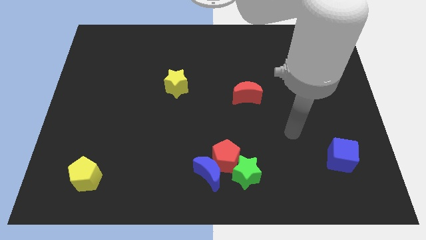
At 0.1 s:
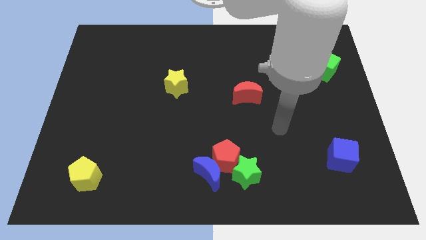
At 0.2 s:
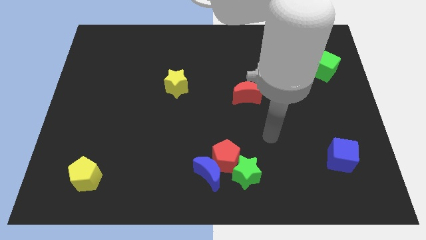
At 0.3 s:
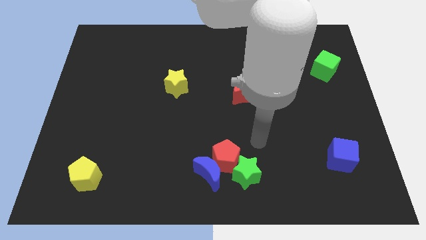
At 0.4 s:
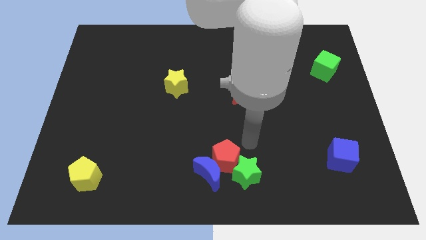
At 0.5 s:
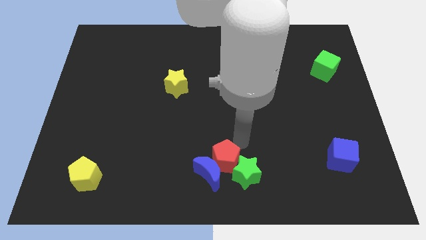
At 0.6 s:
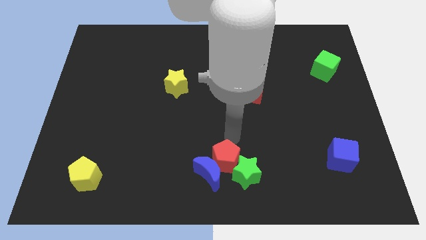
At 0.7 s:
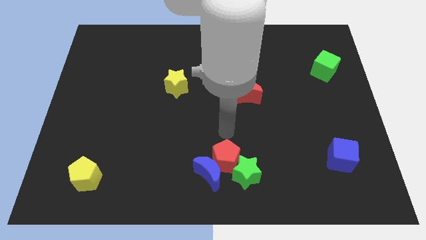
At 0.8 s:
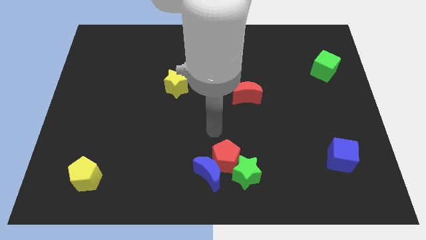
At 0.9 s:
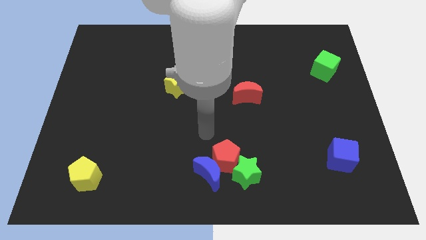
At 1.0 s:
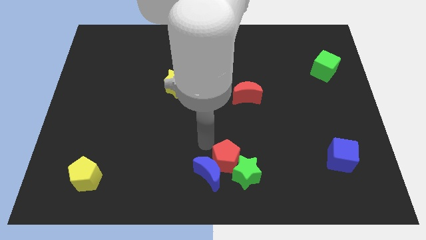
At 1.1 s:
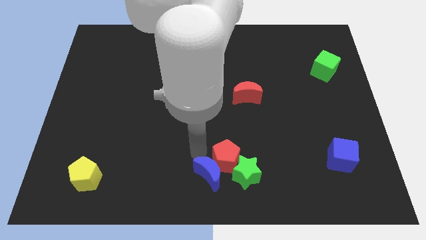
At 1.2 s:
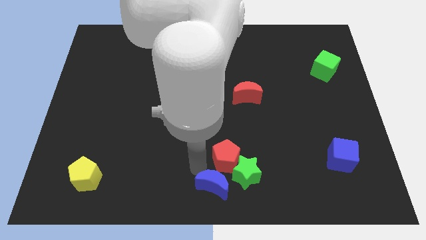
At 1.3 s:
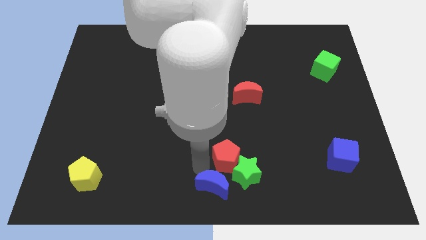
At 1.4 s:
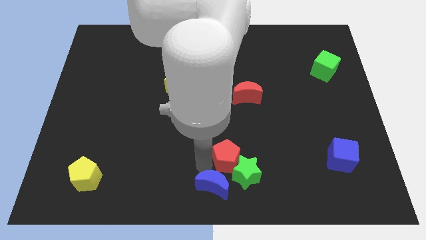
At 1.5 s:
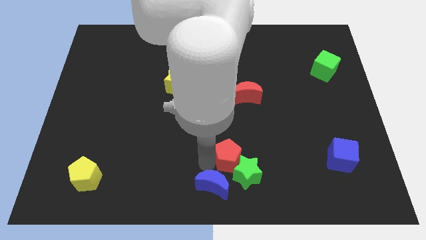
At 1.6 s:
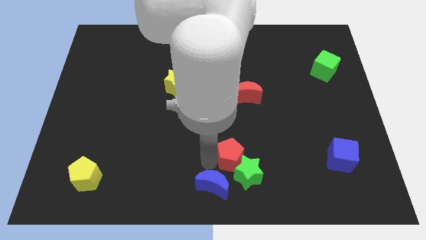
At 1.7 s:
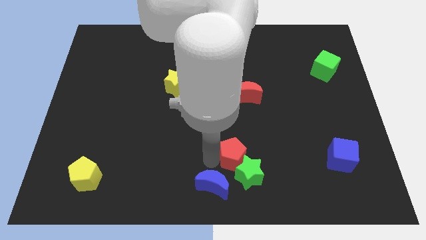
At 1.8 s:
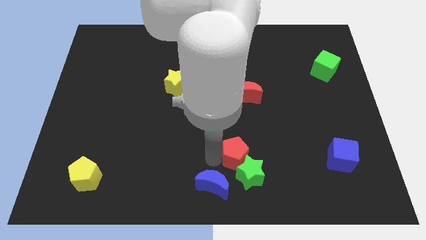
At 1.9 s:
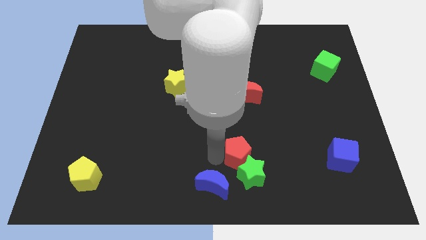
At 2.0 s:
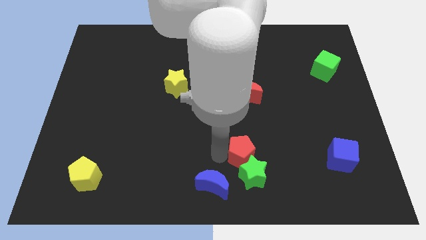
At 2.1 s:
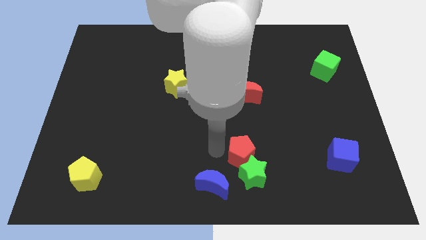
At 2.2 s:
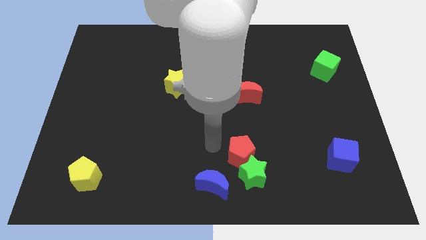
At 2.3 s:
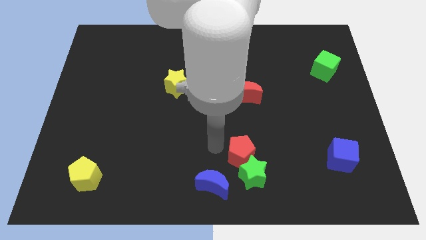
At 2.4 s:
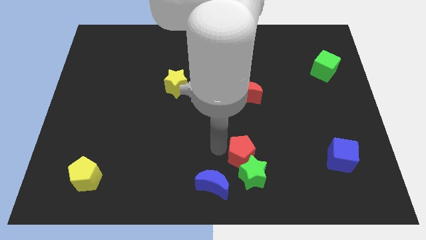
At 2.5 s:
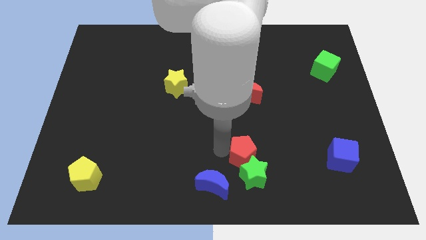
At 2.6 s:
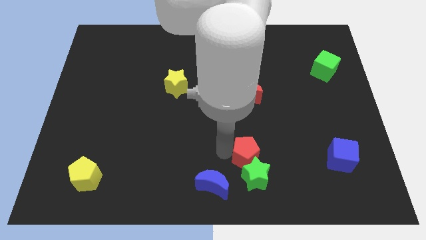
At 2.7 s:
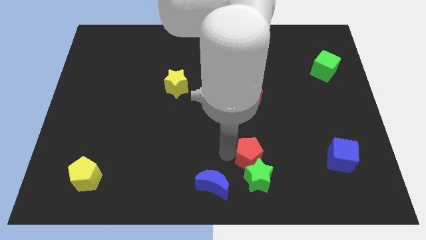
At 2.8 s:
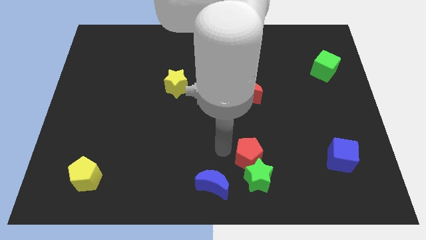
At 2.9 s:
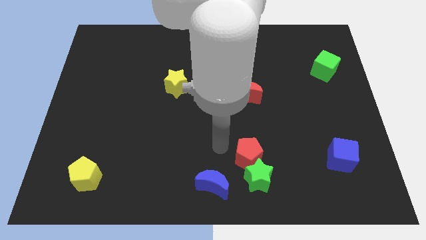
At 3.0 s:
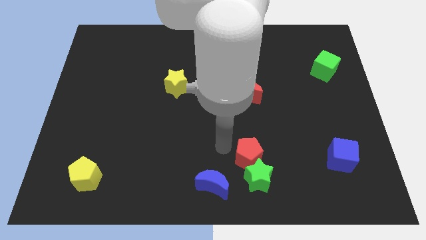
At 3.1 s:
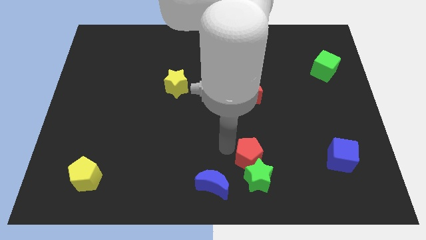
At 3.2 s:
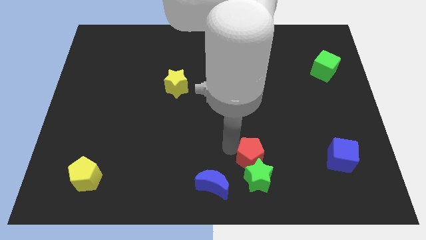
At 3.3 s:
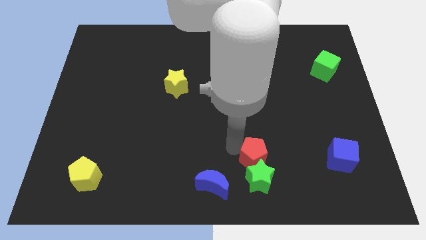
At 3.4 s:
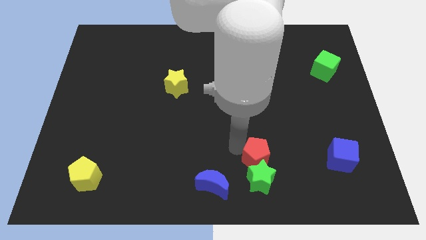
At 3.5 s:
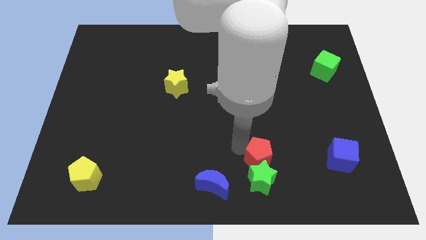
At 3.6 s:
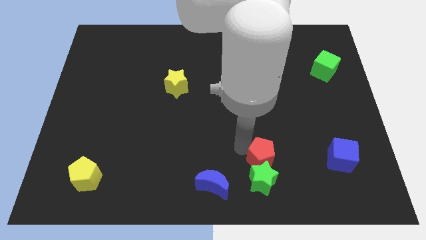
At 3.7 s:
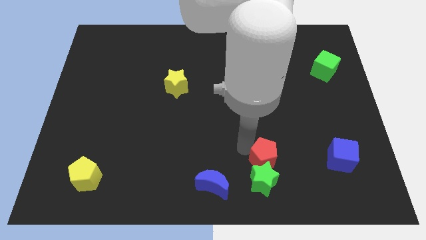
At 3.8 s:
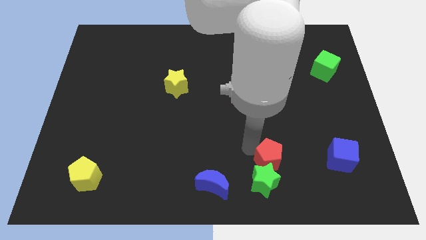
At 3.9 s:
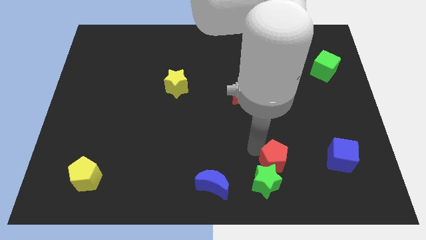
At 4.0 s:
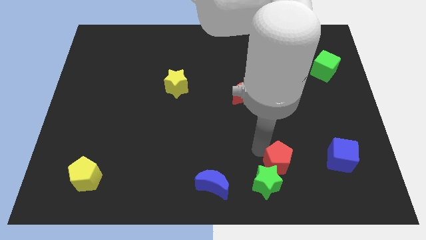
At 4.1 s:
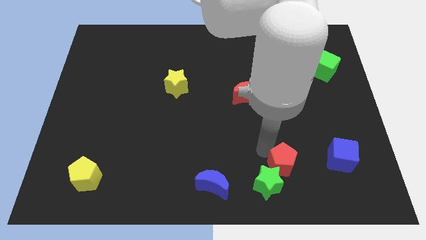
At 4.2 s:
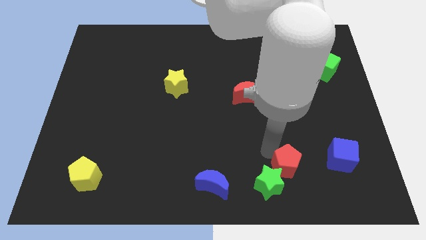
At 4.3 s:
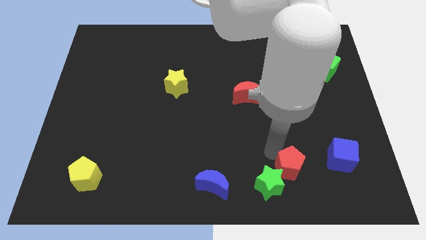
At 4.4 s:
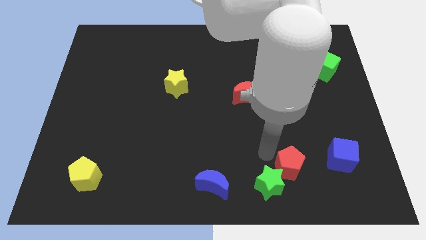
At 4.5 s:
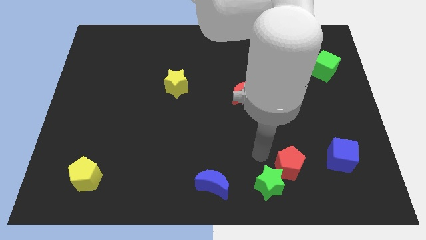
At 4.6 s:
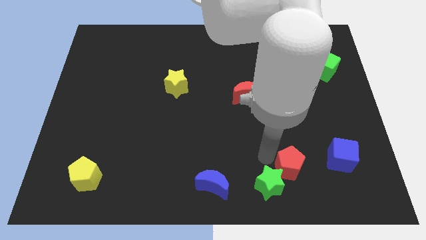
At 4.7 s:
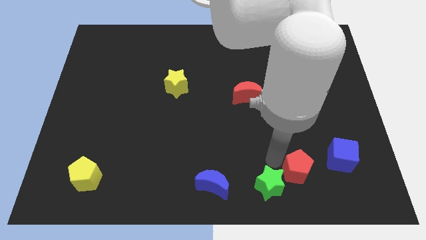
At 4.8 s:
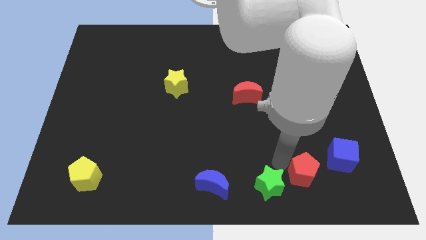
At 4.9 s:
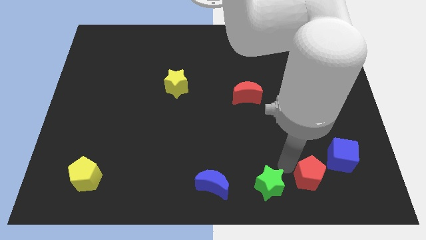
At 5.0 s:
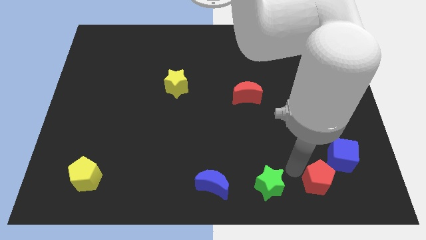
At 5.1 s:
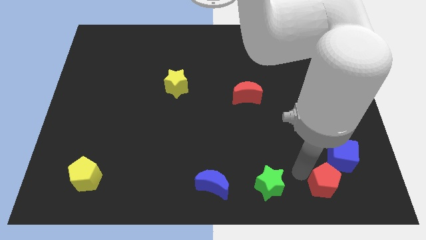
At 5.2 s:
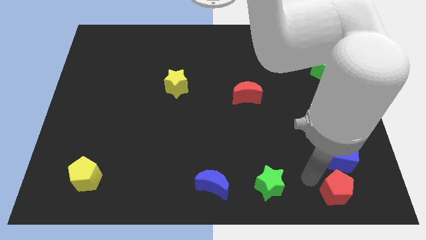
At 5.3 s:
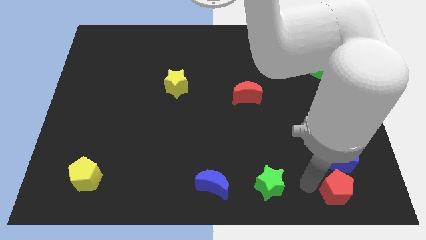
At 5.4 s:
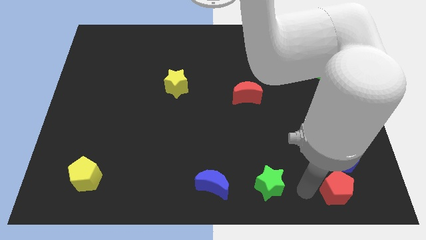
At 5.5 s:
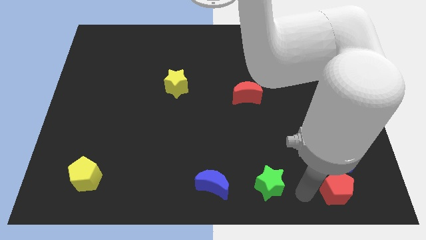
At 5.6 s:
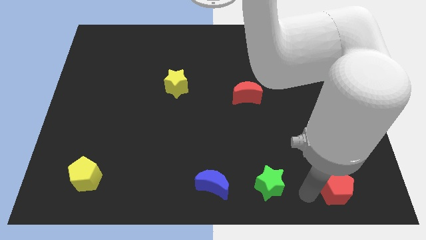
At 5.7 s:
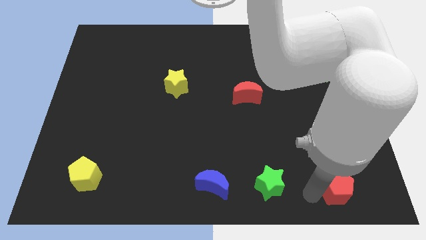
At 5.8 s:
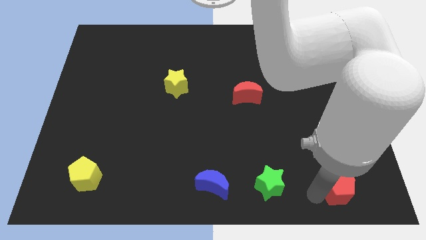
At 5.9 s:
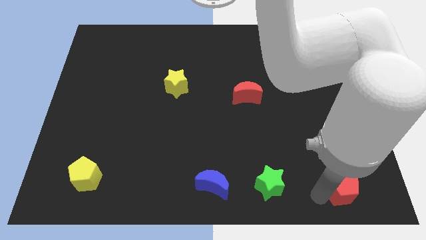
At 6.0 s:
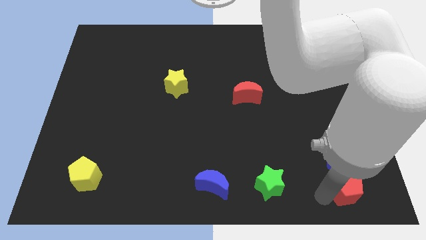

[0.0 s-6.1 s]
slide the red pentagon to the bottom right

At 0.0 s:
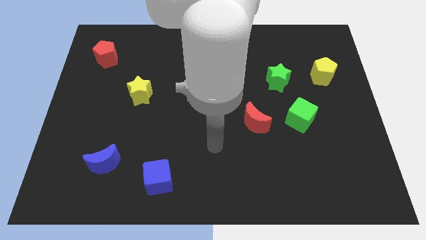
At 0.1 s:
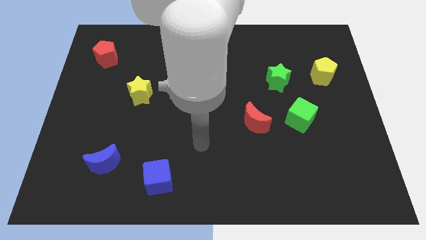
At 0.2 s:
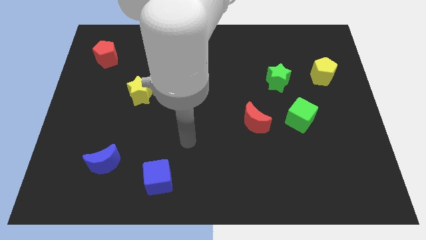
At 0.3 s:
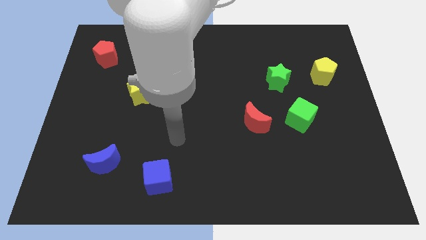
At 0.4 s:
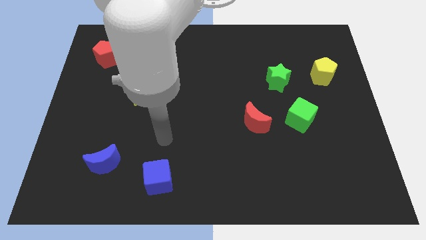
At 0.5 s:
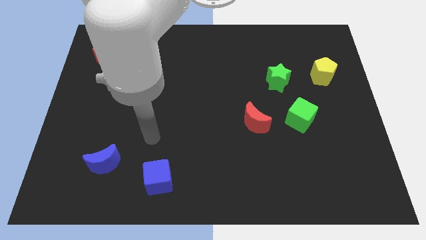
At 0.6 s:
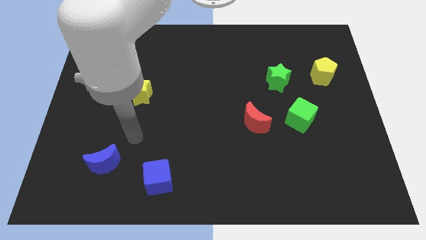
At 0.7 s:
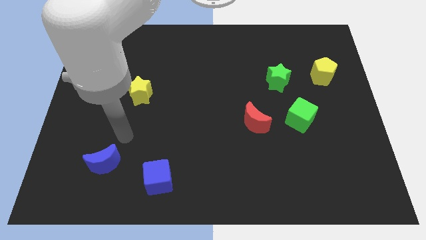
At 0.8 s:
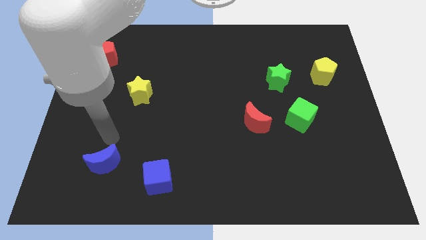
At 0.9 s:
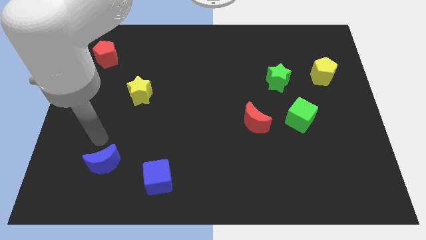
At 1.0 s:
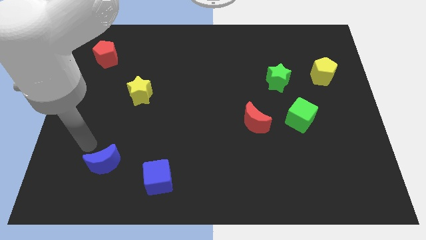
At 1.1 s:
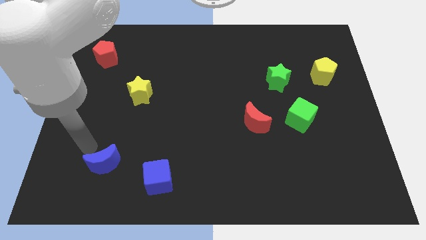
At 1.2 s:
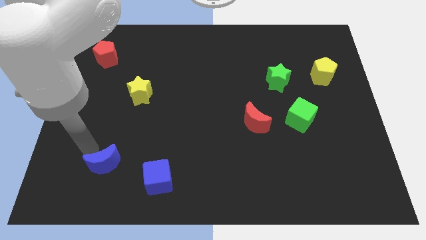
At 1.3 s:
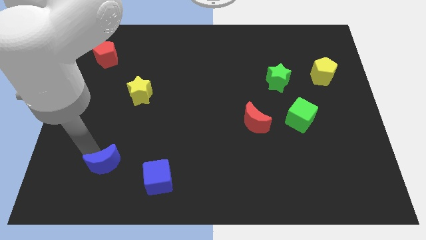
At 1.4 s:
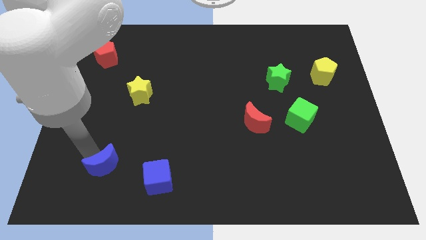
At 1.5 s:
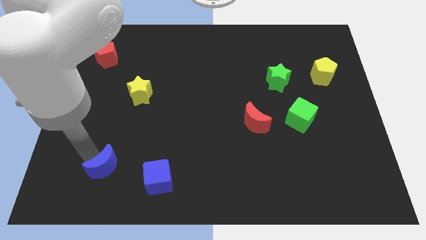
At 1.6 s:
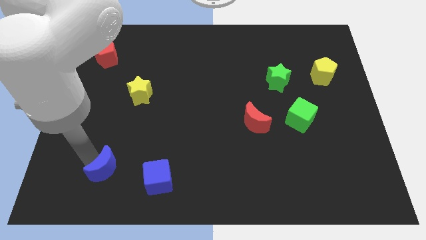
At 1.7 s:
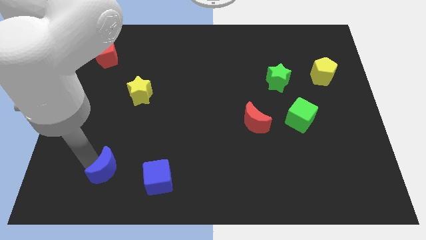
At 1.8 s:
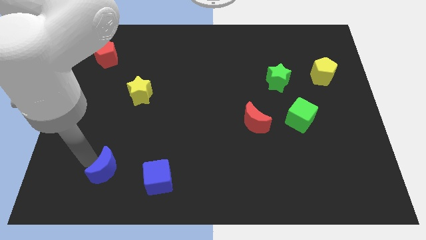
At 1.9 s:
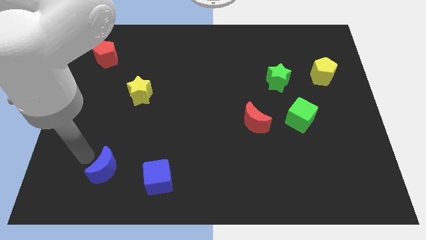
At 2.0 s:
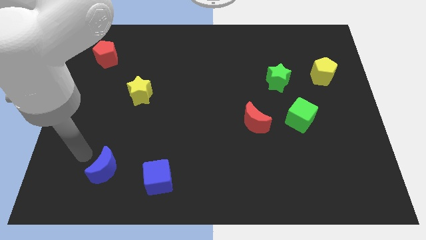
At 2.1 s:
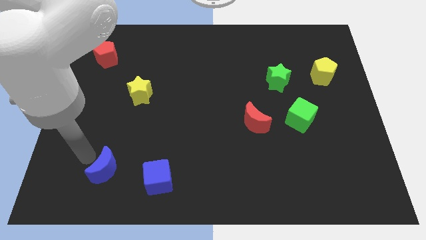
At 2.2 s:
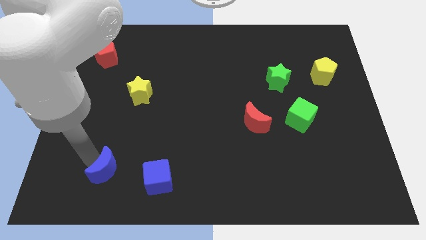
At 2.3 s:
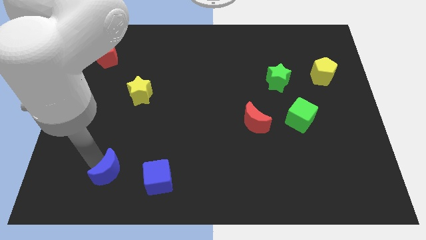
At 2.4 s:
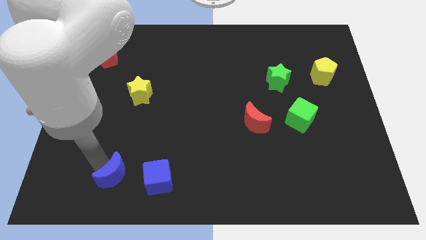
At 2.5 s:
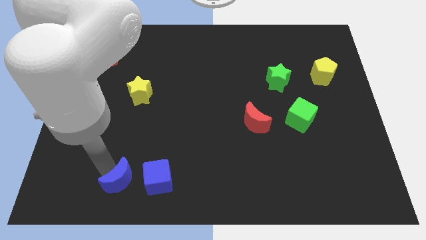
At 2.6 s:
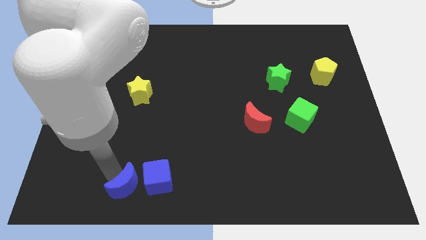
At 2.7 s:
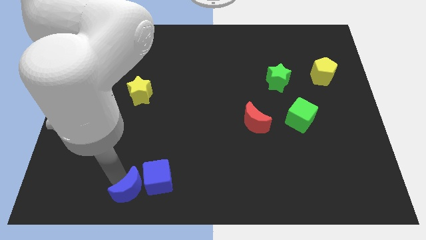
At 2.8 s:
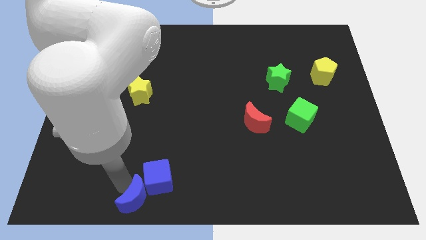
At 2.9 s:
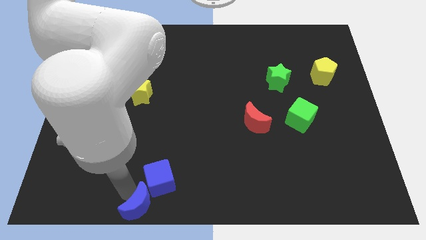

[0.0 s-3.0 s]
push the blue moon to the bottom
